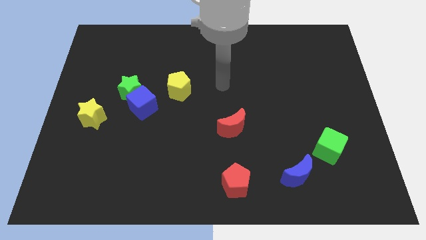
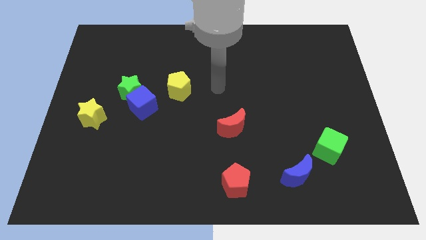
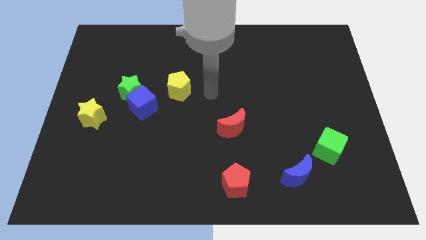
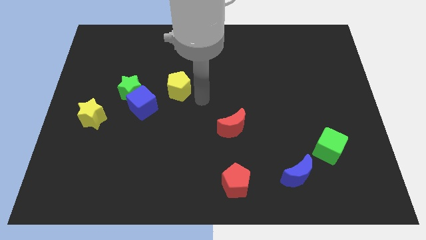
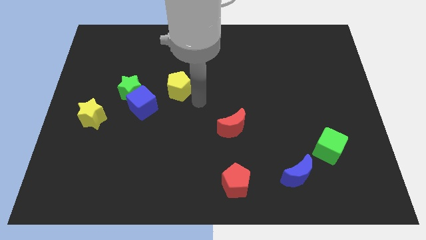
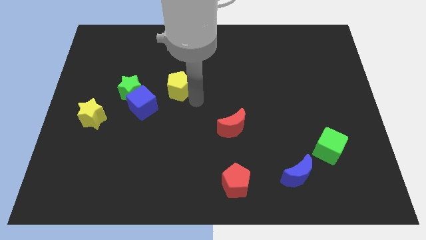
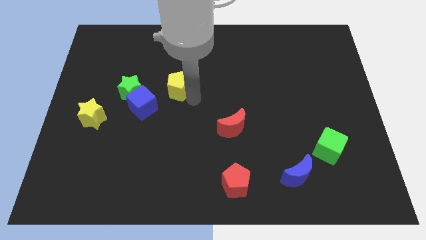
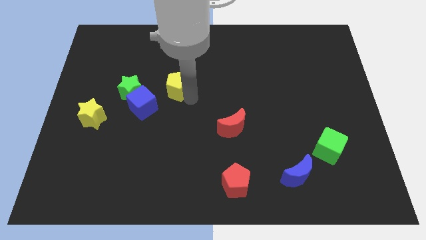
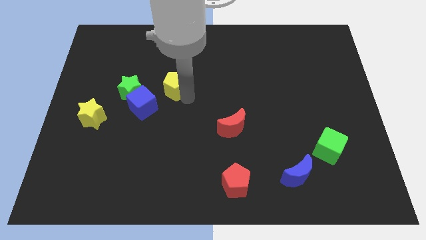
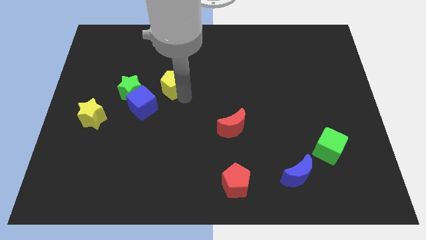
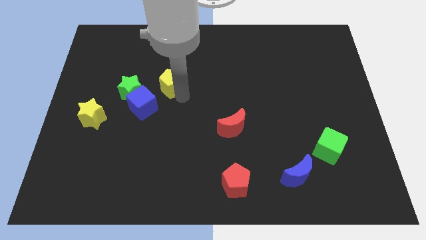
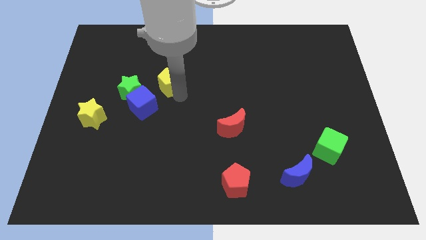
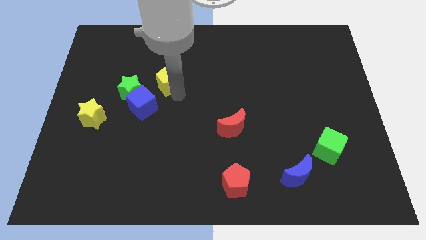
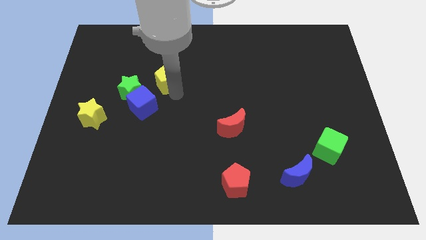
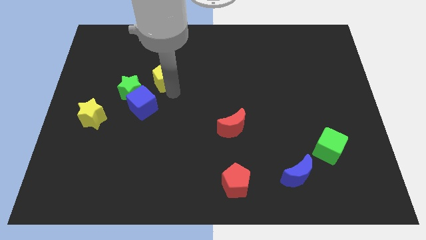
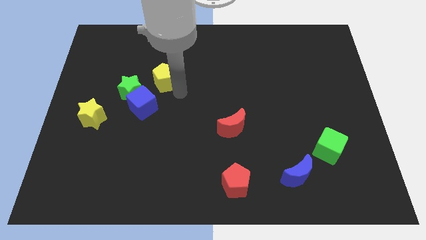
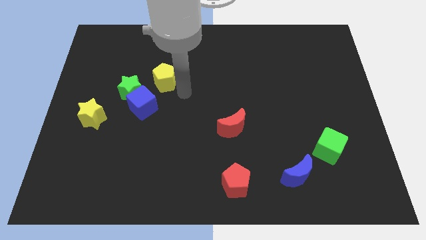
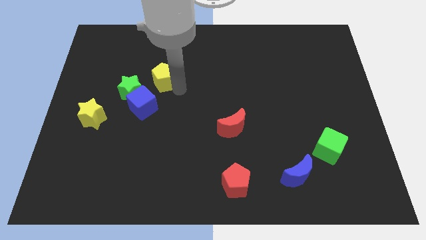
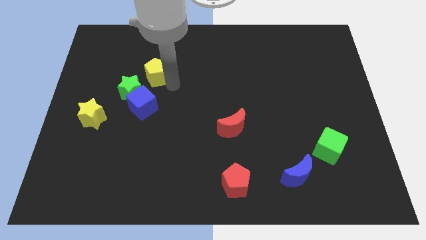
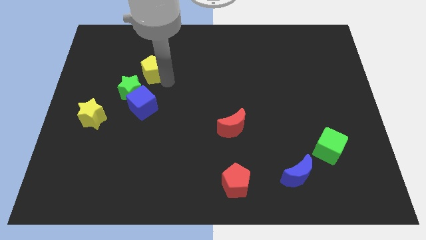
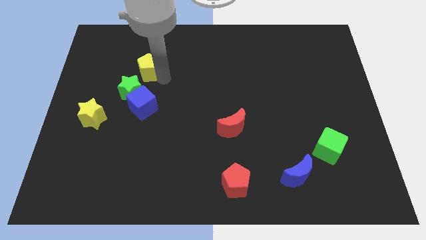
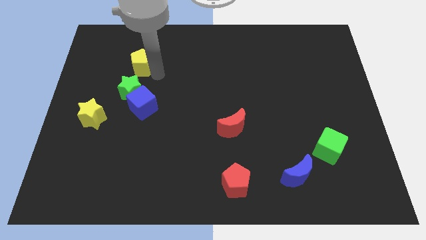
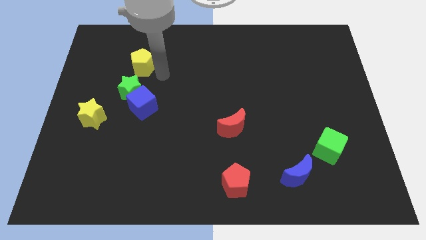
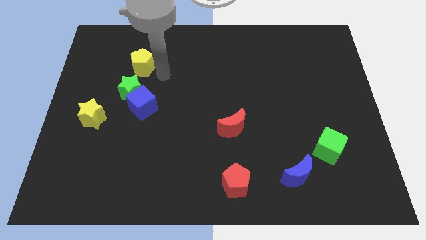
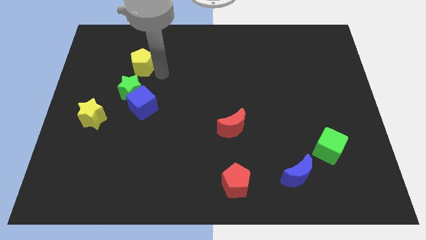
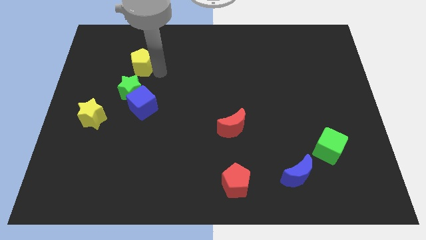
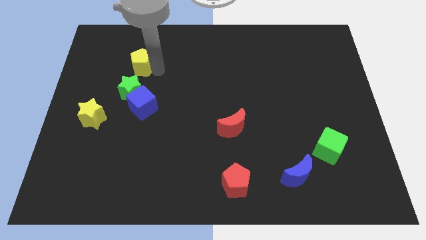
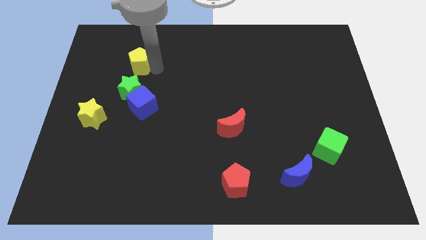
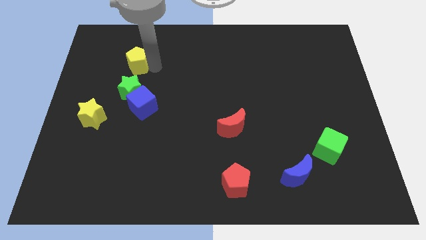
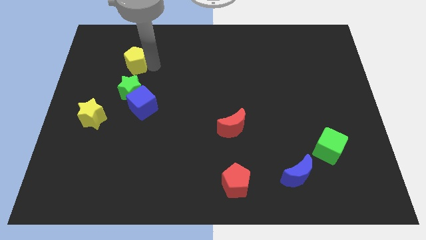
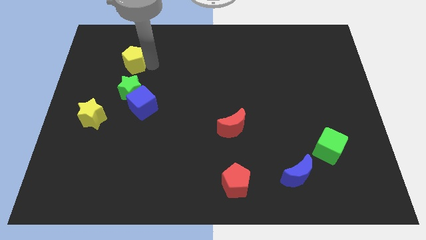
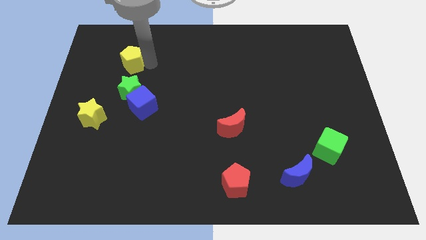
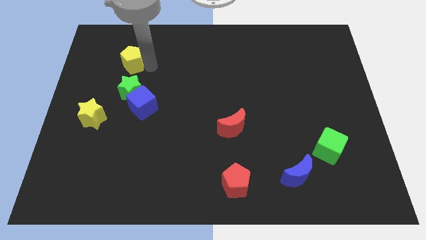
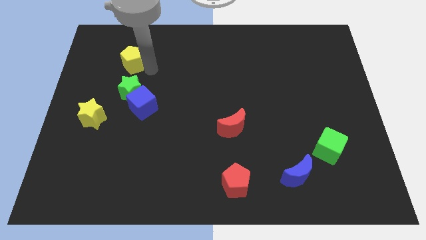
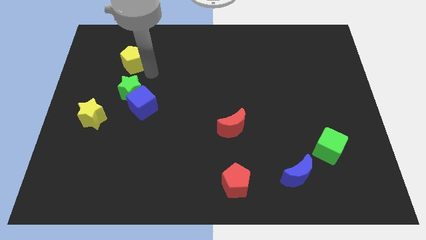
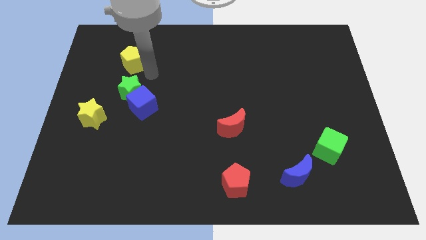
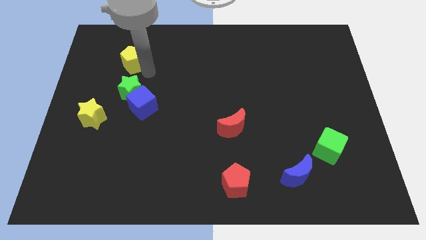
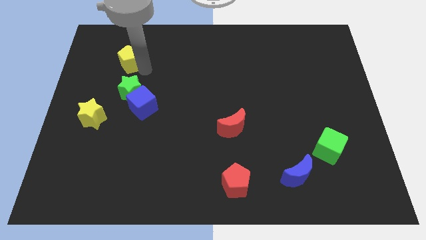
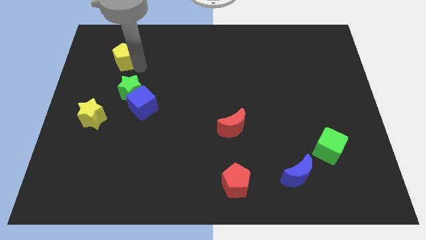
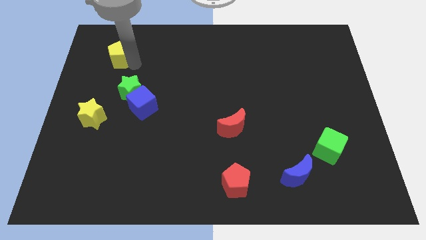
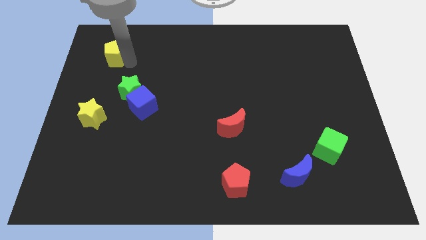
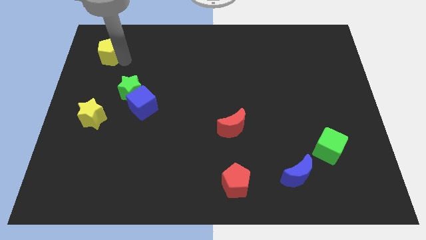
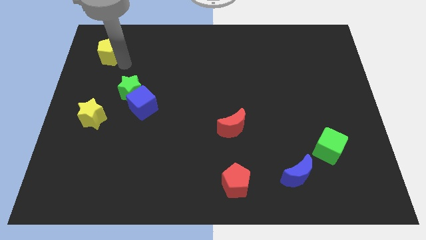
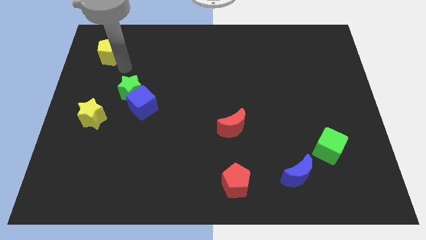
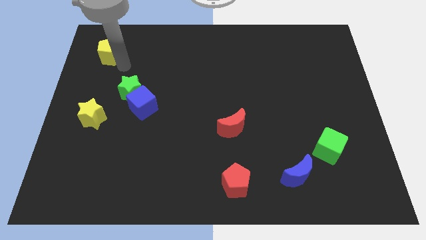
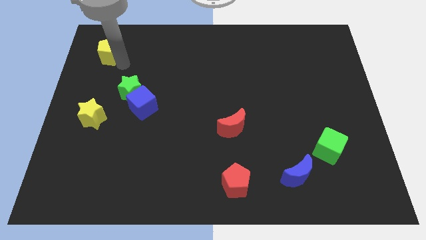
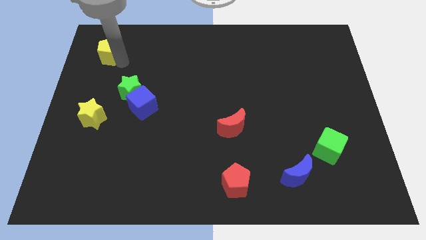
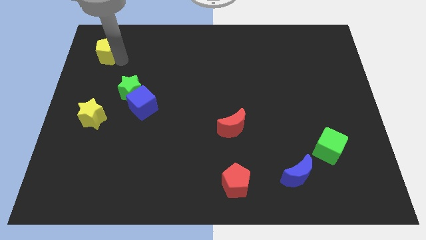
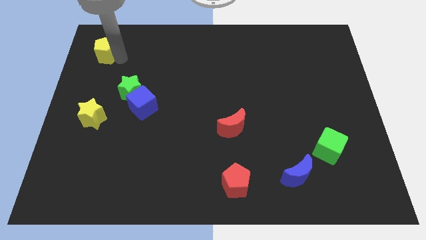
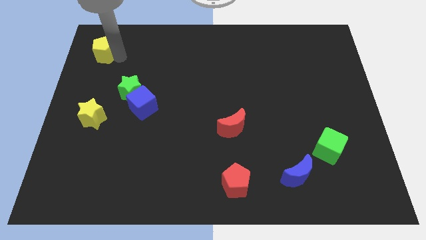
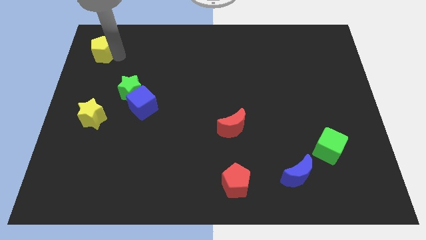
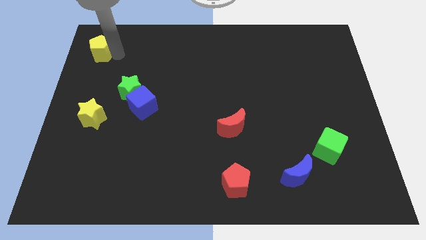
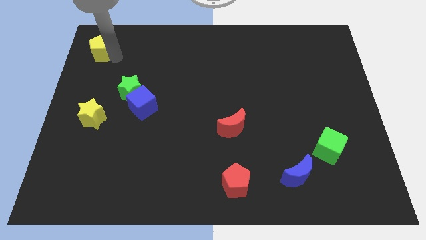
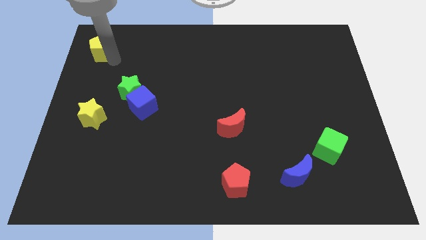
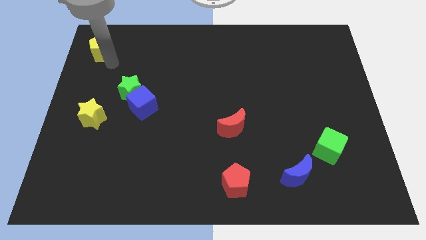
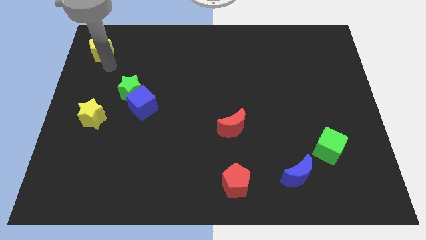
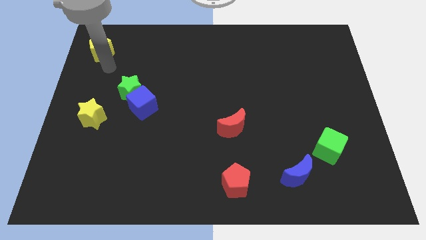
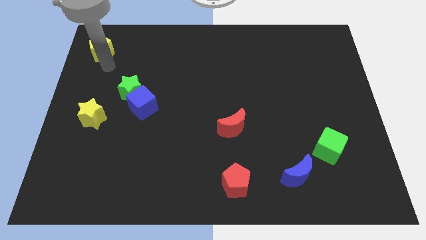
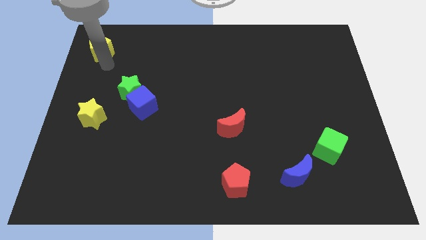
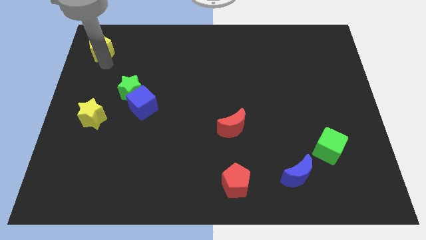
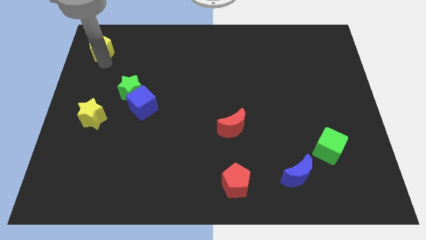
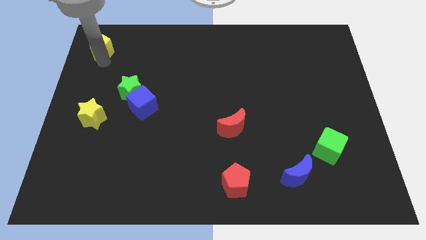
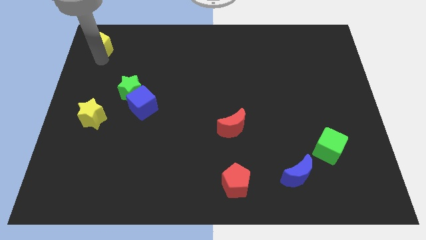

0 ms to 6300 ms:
move the yellow pentagon to the top left of the board

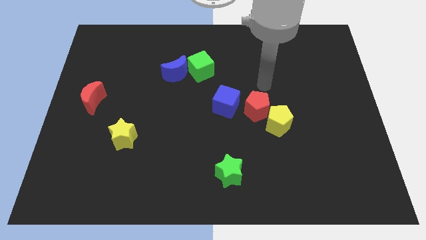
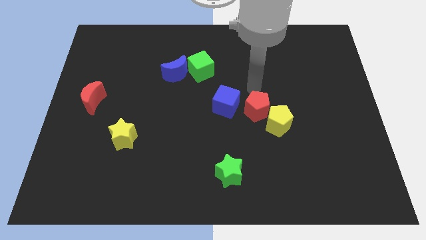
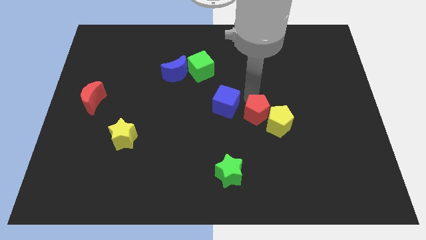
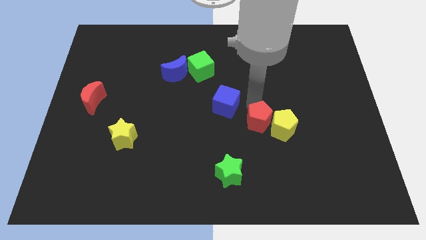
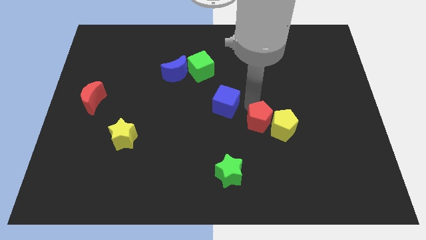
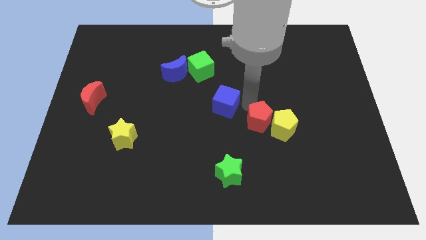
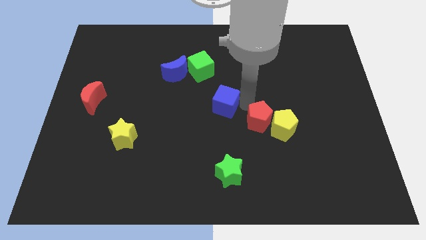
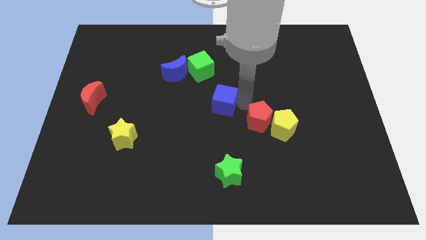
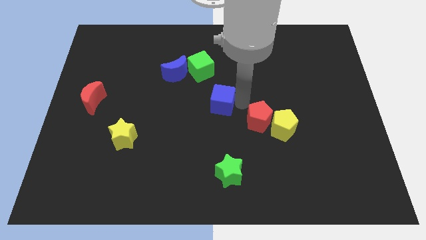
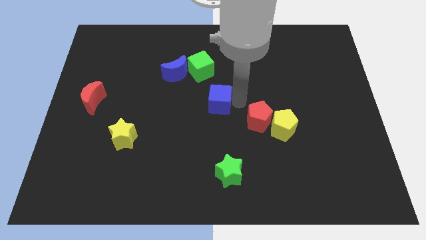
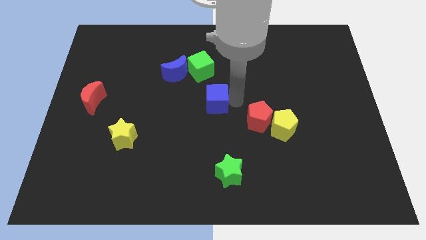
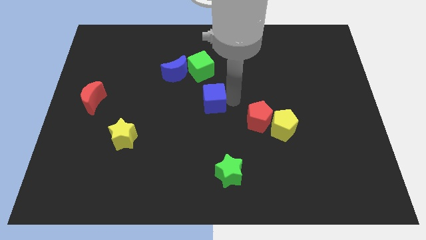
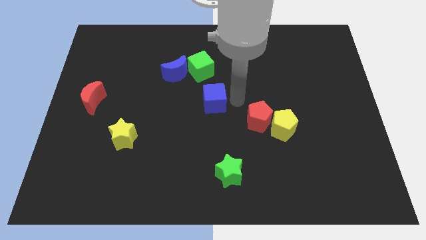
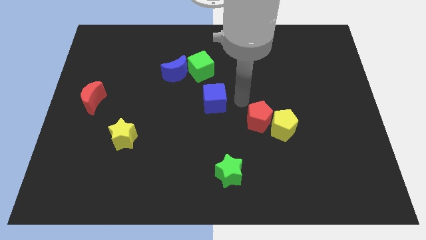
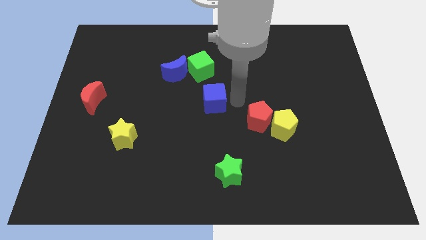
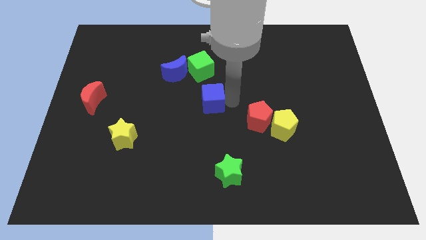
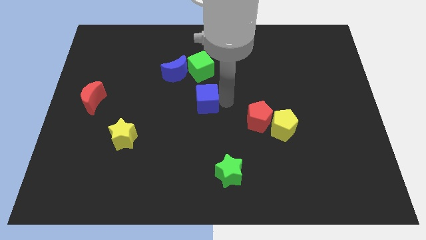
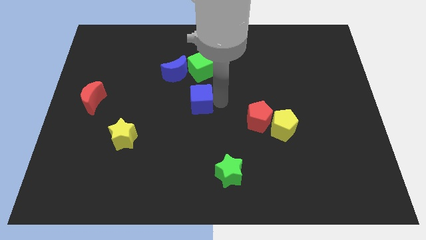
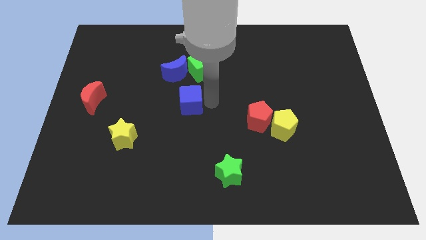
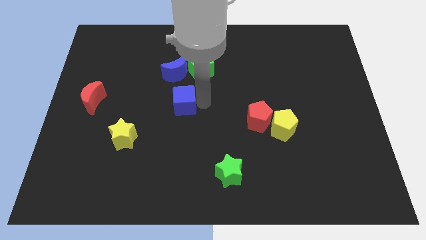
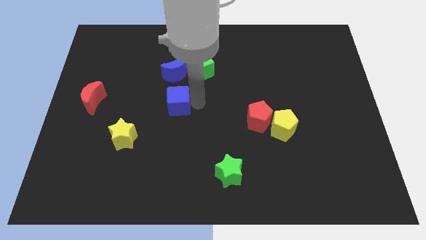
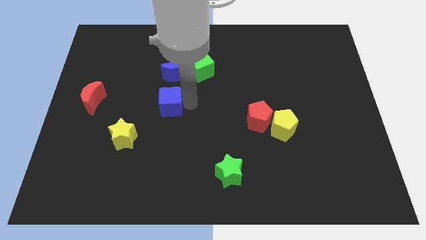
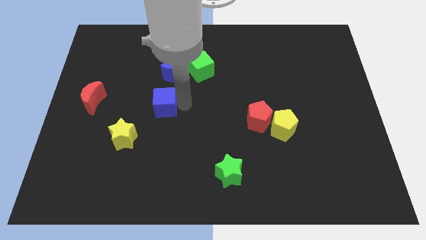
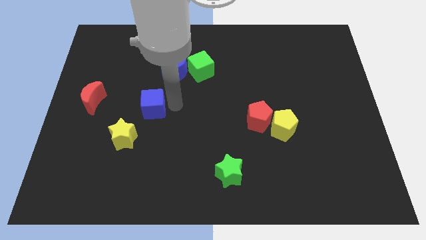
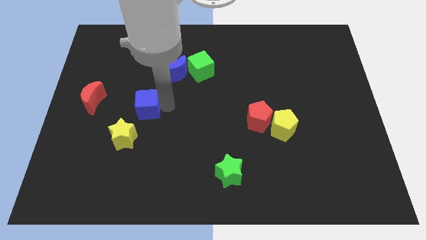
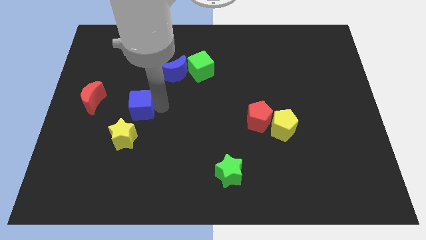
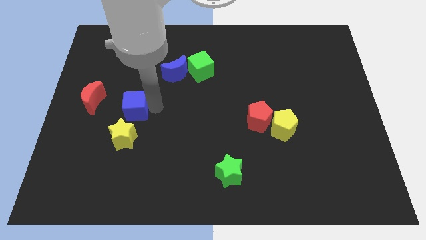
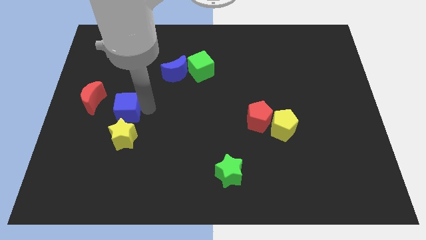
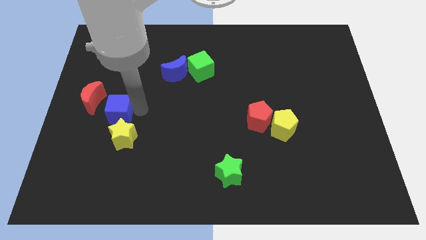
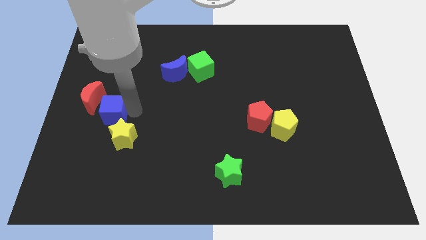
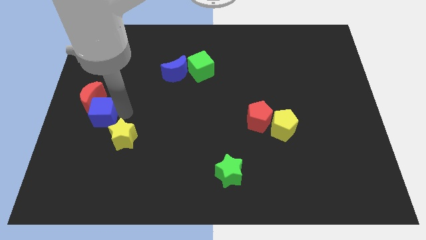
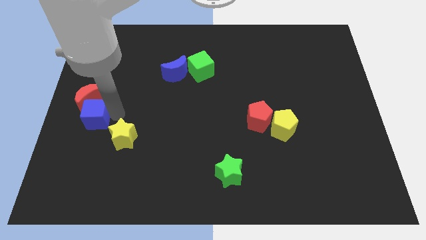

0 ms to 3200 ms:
put the blue cube to the center left
